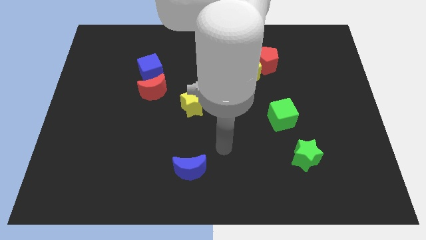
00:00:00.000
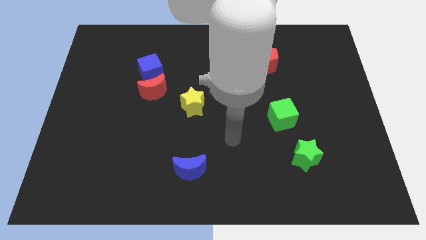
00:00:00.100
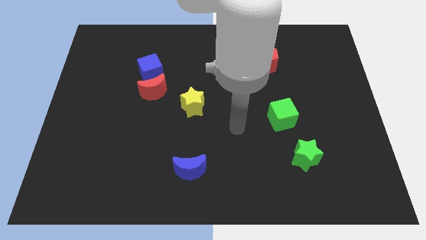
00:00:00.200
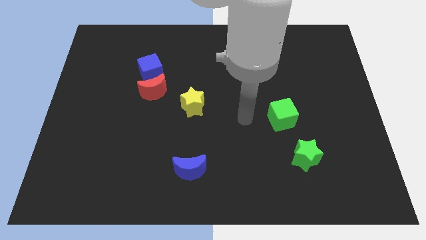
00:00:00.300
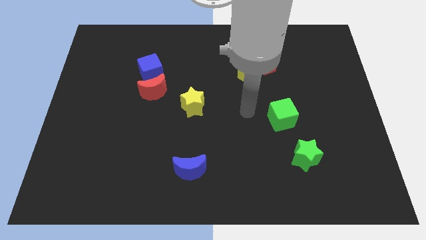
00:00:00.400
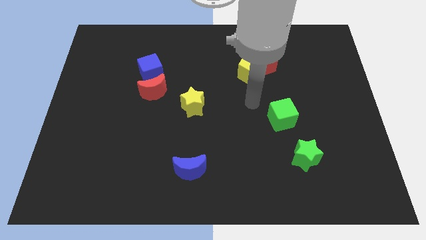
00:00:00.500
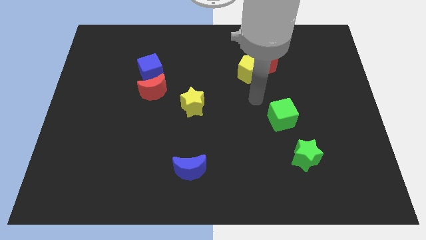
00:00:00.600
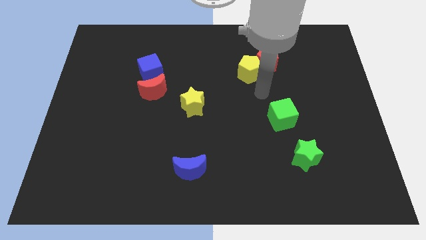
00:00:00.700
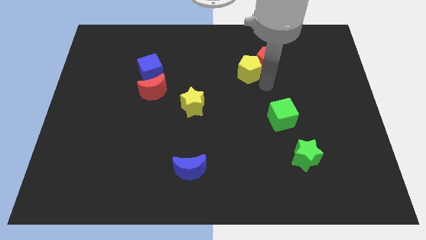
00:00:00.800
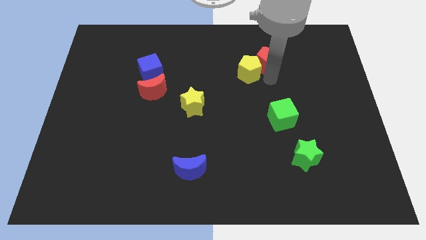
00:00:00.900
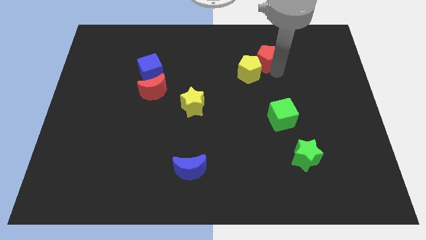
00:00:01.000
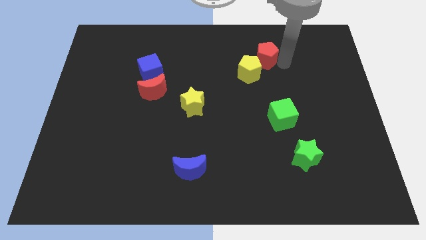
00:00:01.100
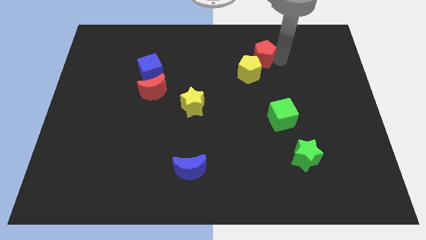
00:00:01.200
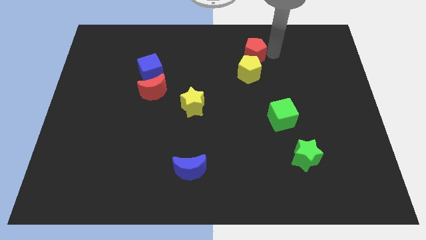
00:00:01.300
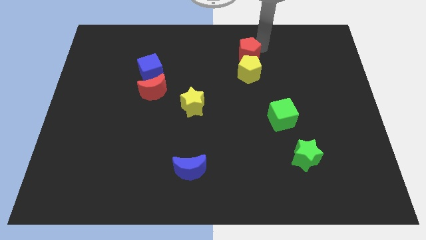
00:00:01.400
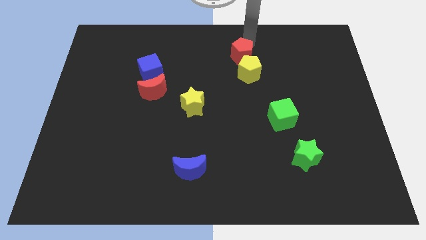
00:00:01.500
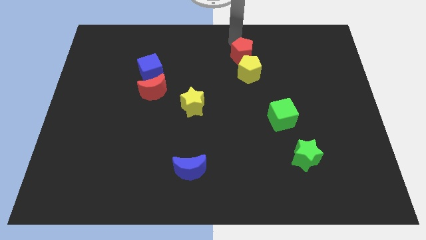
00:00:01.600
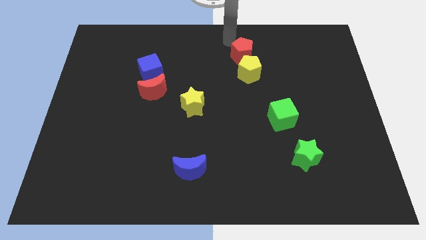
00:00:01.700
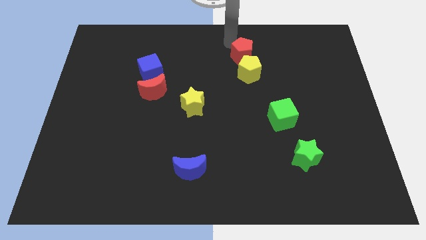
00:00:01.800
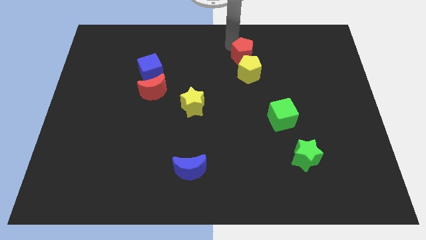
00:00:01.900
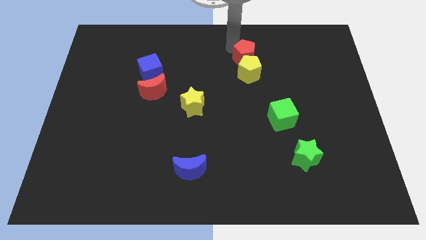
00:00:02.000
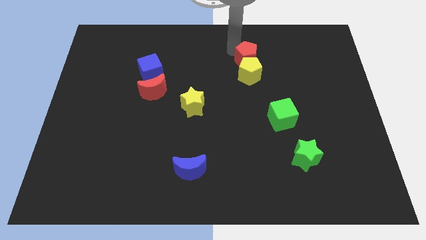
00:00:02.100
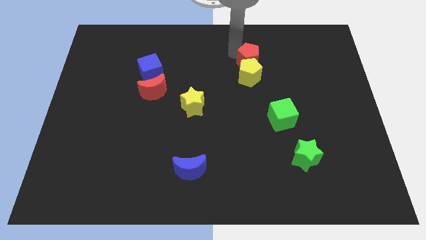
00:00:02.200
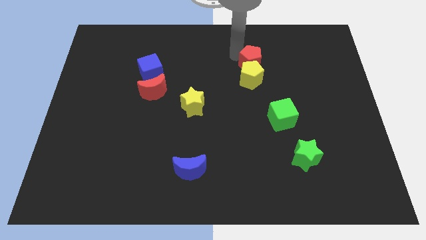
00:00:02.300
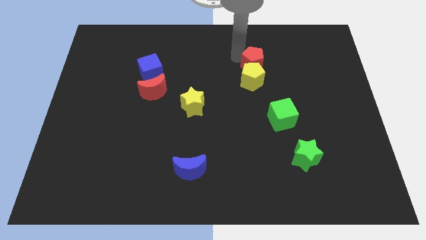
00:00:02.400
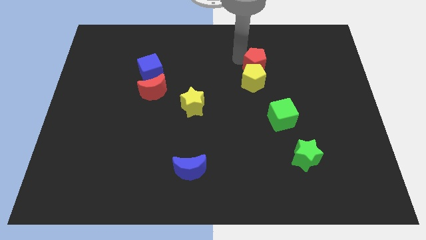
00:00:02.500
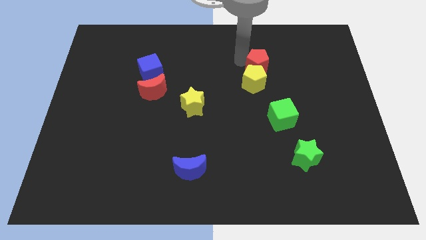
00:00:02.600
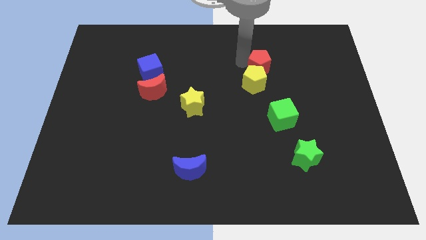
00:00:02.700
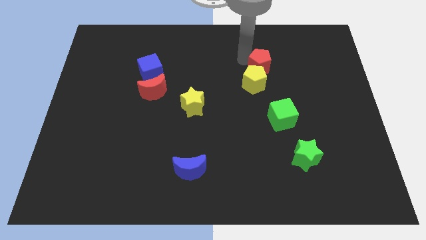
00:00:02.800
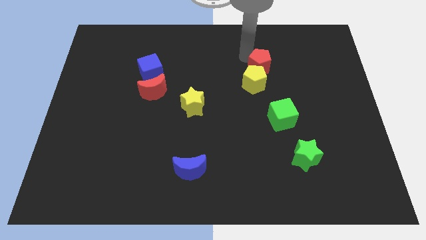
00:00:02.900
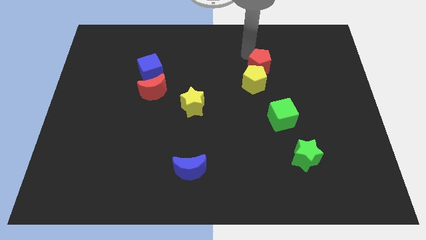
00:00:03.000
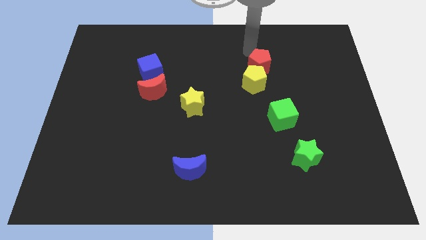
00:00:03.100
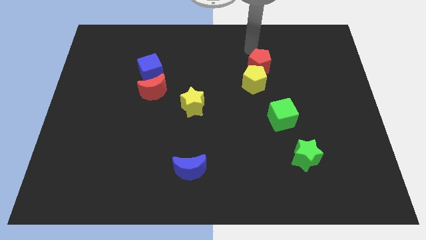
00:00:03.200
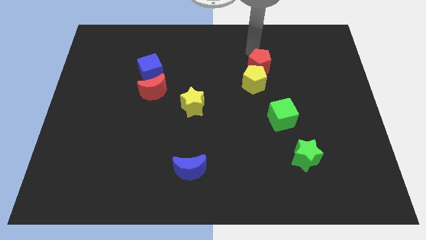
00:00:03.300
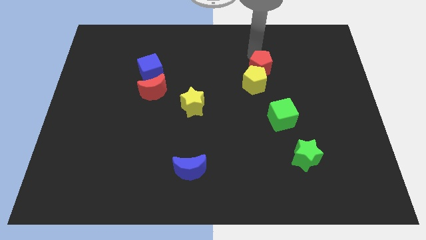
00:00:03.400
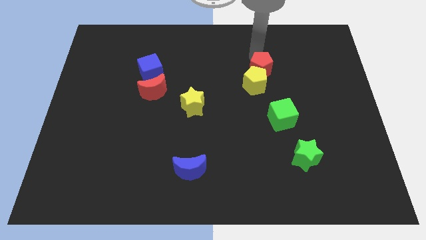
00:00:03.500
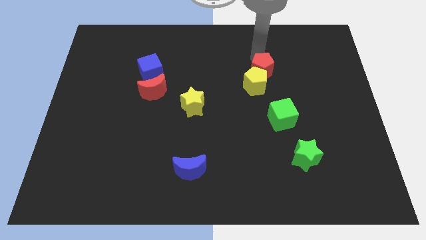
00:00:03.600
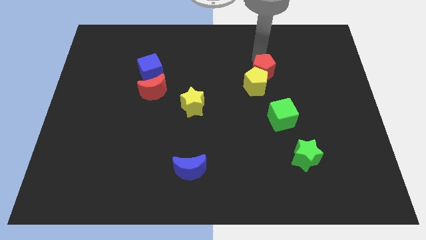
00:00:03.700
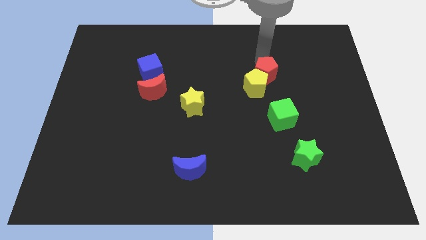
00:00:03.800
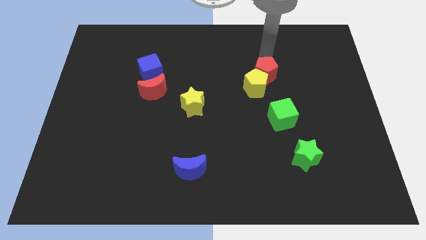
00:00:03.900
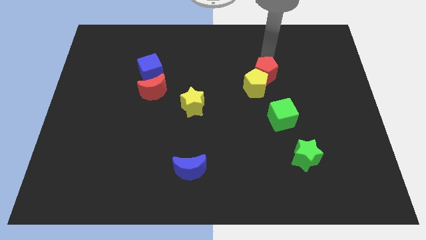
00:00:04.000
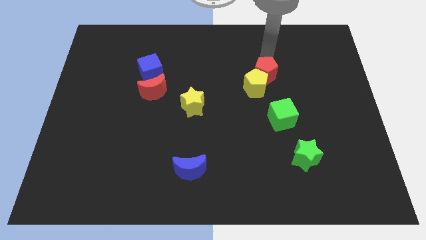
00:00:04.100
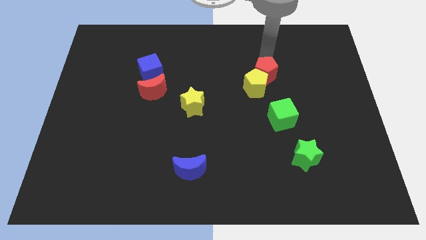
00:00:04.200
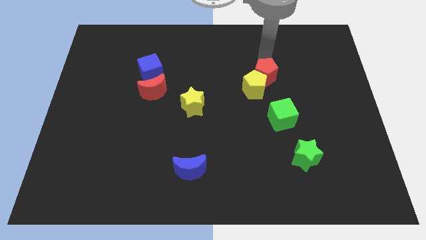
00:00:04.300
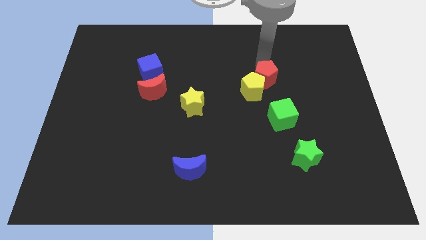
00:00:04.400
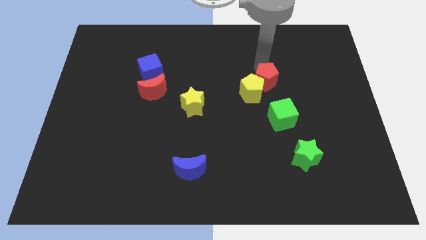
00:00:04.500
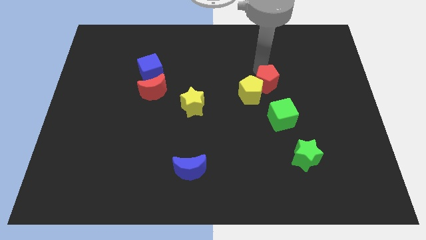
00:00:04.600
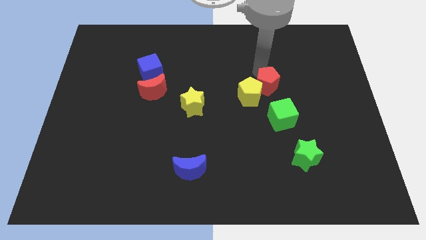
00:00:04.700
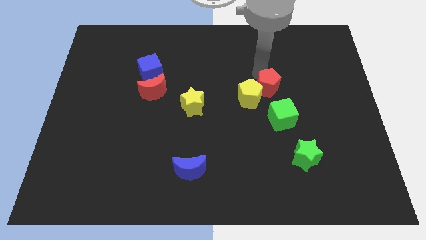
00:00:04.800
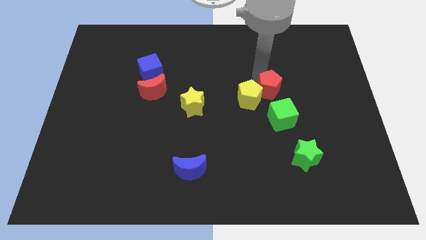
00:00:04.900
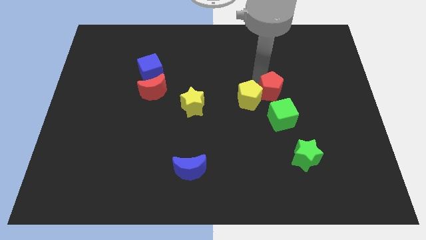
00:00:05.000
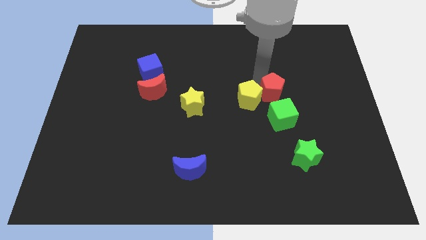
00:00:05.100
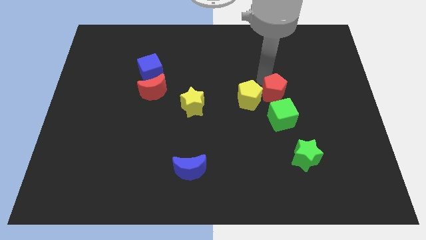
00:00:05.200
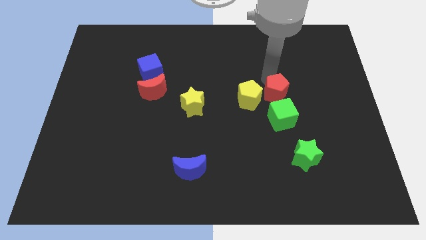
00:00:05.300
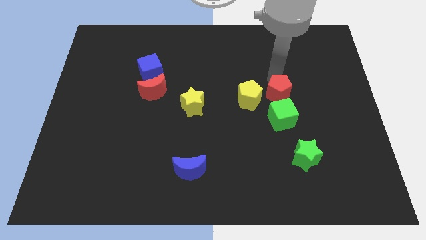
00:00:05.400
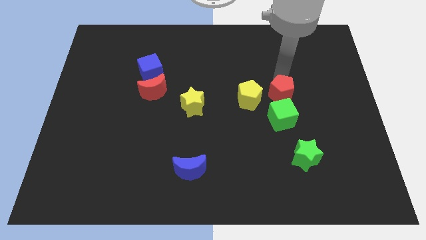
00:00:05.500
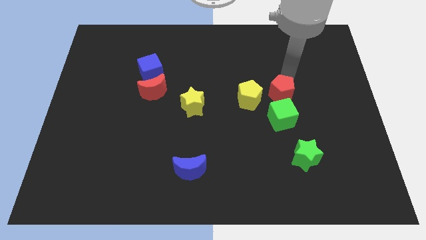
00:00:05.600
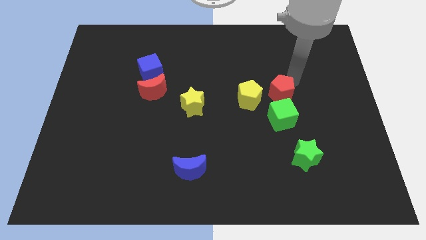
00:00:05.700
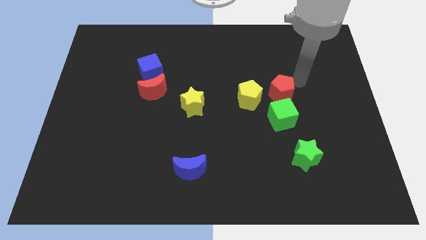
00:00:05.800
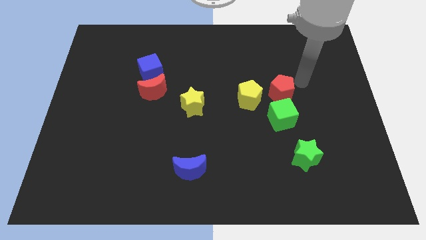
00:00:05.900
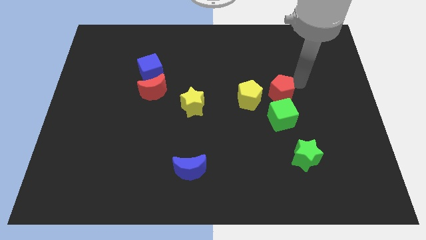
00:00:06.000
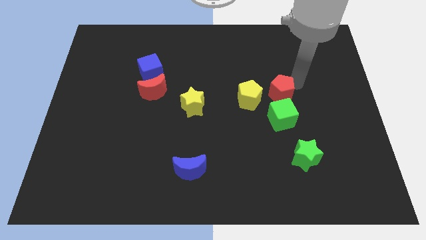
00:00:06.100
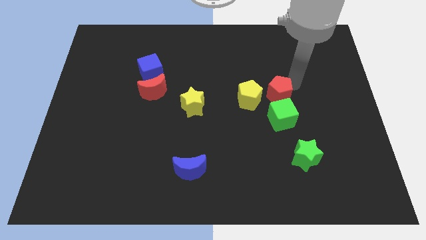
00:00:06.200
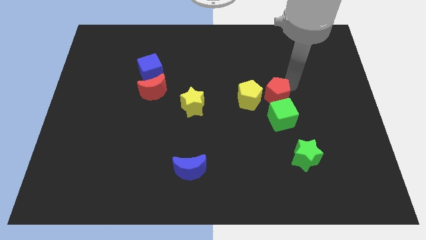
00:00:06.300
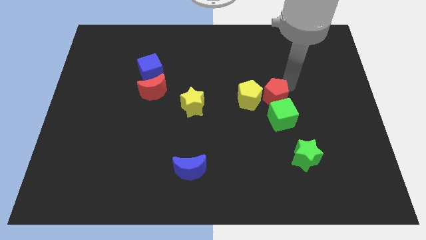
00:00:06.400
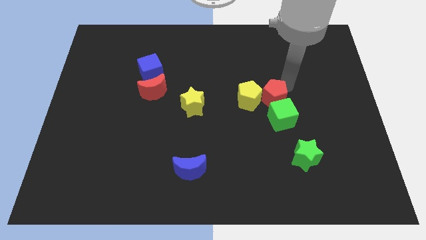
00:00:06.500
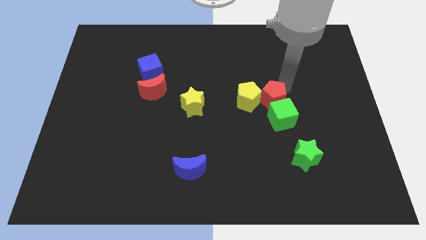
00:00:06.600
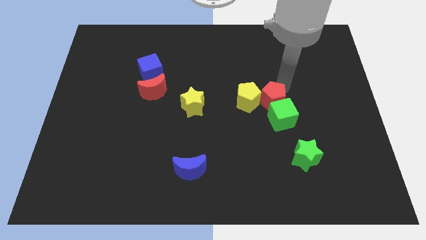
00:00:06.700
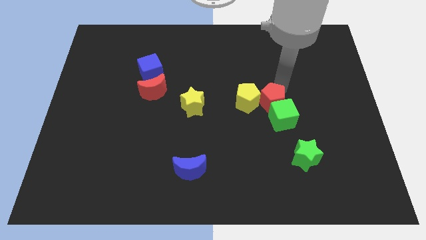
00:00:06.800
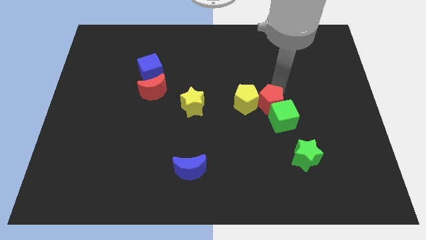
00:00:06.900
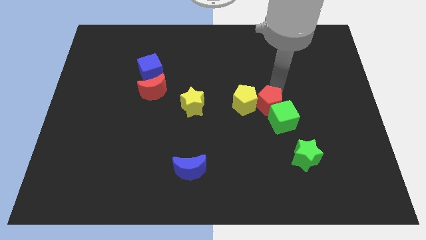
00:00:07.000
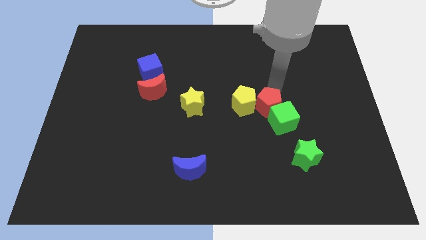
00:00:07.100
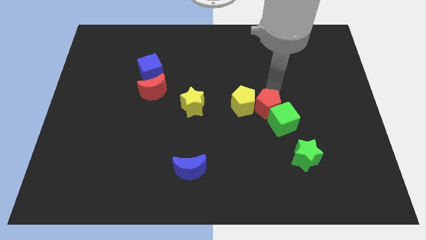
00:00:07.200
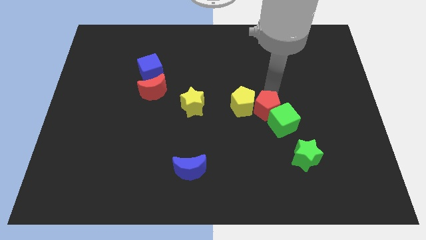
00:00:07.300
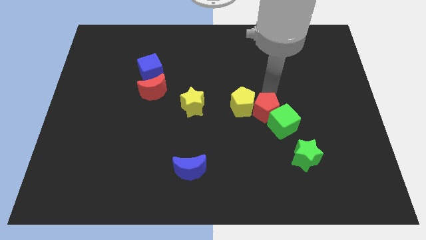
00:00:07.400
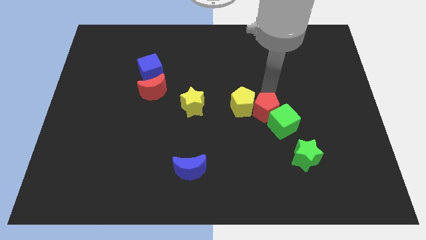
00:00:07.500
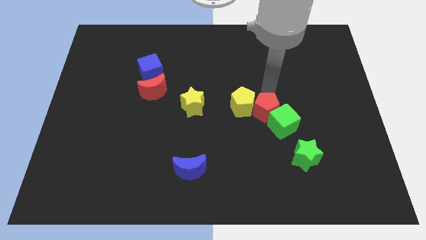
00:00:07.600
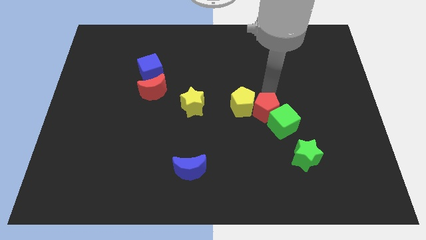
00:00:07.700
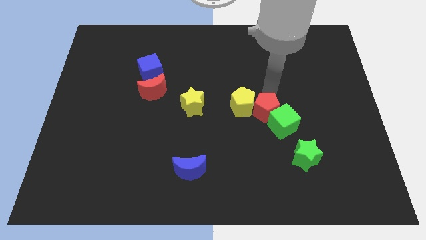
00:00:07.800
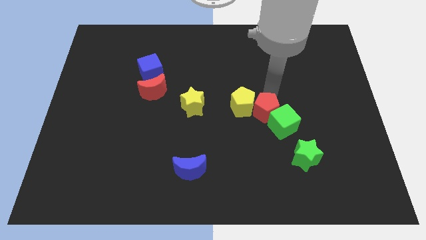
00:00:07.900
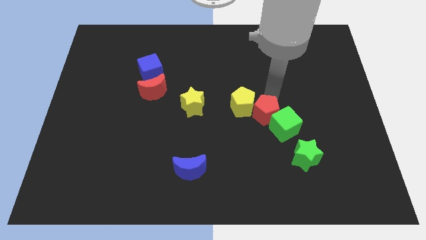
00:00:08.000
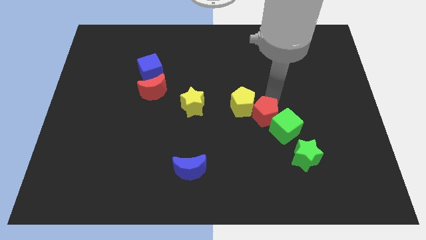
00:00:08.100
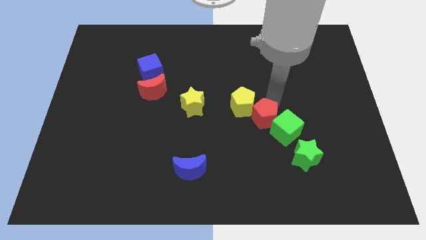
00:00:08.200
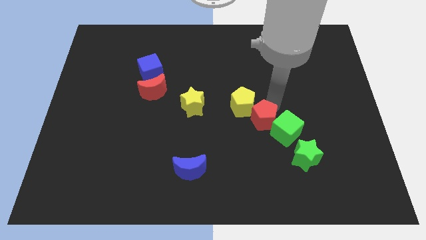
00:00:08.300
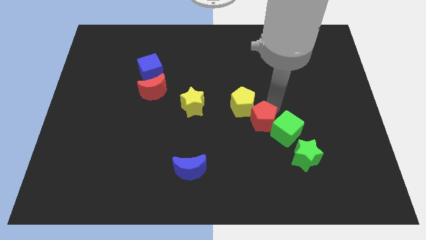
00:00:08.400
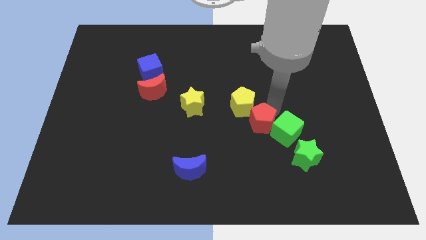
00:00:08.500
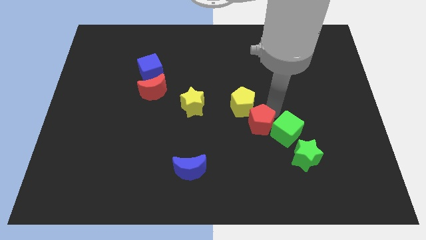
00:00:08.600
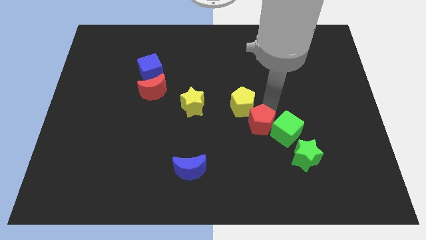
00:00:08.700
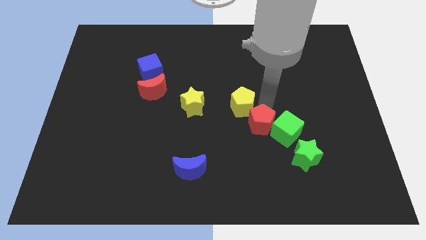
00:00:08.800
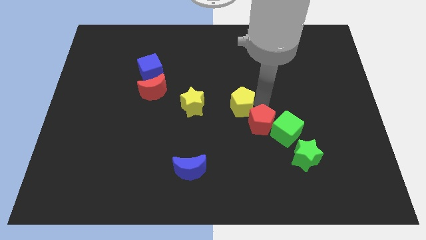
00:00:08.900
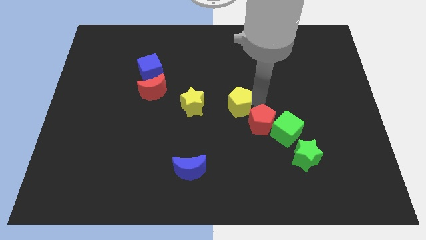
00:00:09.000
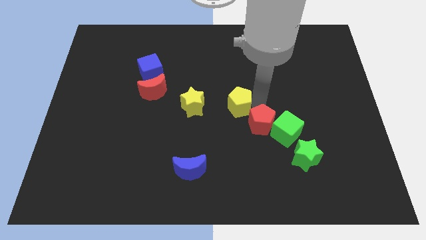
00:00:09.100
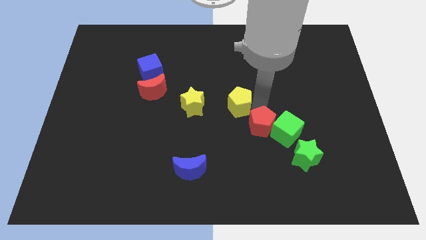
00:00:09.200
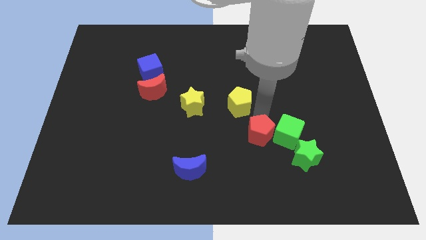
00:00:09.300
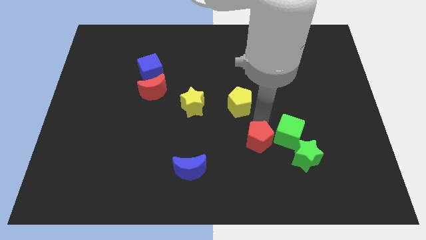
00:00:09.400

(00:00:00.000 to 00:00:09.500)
push the red pentagon just left of the green star
